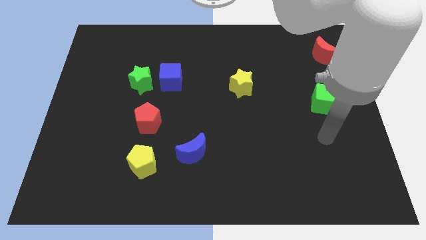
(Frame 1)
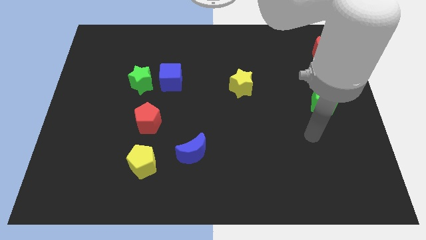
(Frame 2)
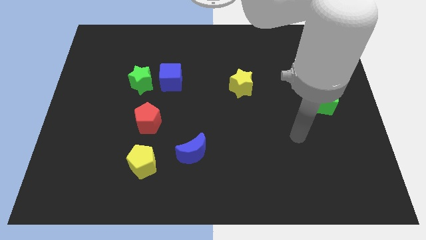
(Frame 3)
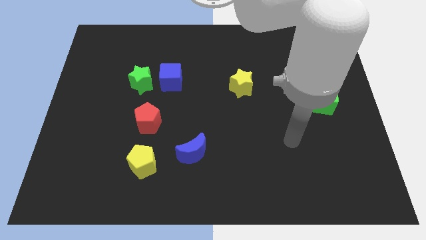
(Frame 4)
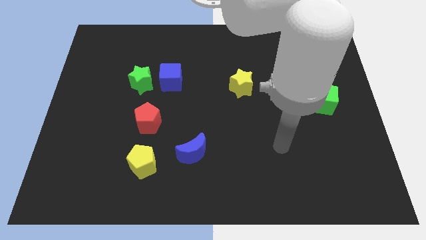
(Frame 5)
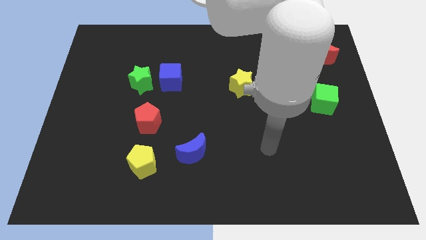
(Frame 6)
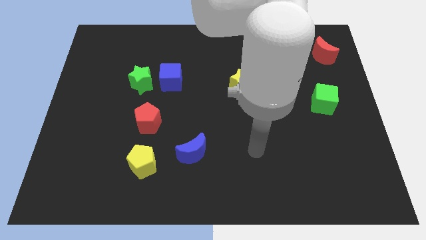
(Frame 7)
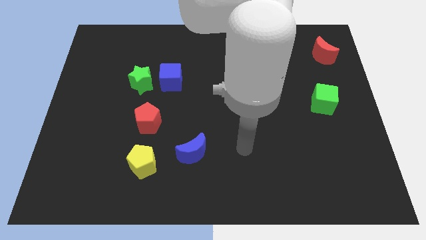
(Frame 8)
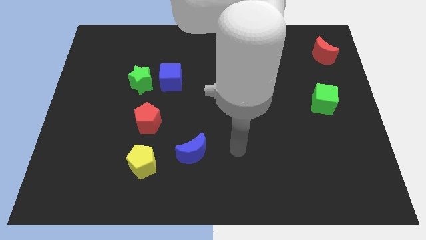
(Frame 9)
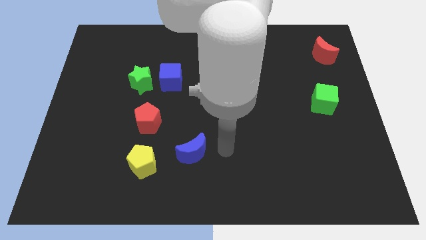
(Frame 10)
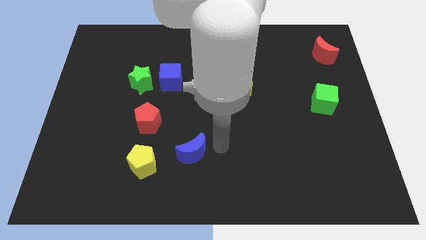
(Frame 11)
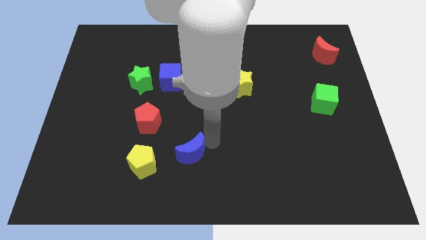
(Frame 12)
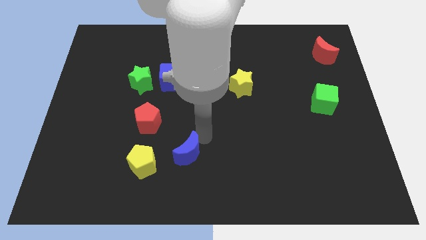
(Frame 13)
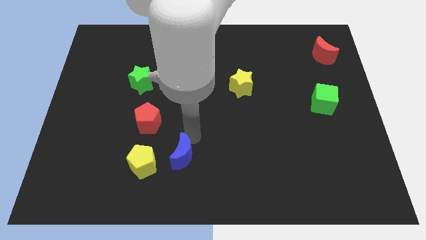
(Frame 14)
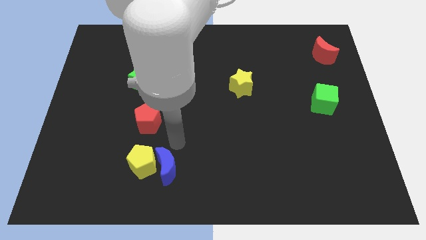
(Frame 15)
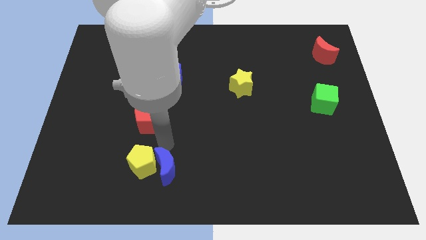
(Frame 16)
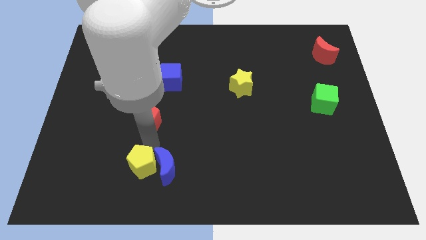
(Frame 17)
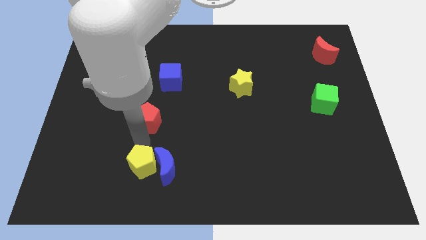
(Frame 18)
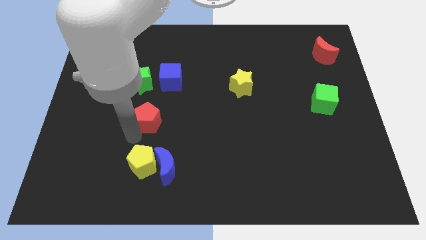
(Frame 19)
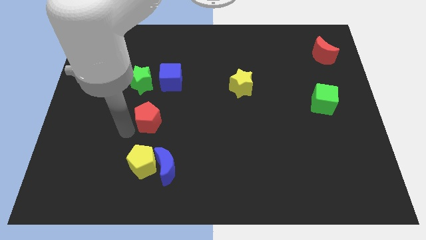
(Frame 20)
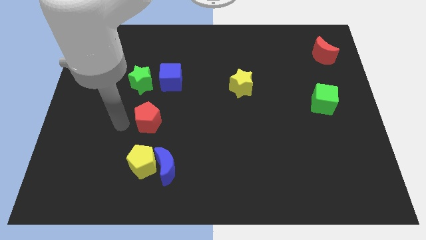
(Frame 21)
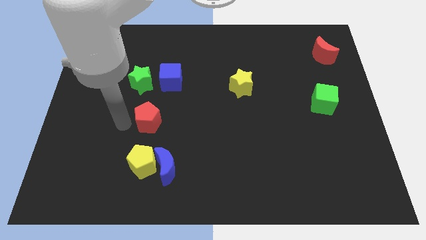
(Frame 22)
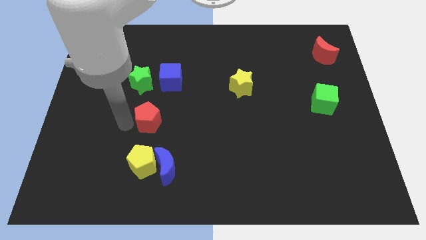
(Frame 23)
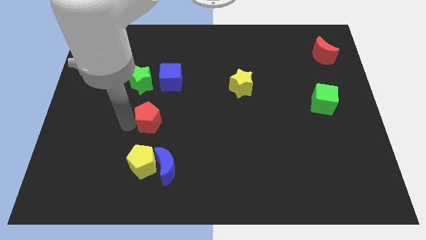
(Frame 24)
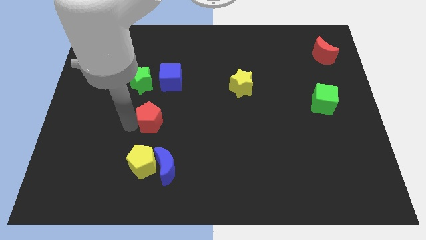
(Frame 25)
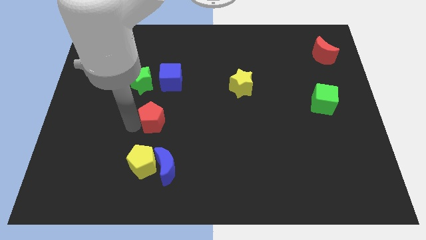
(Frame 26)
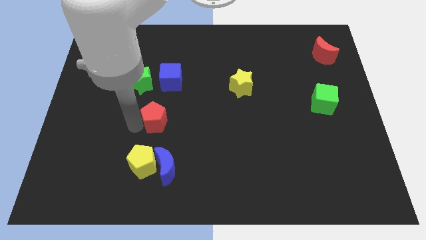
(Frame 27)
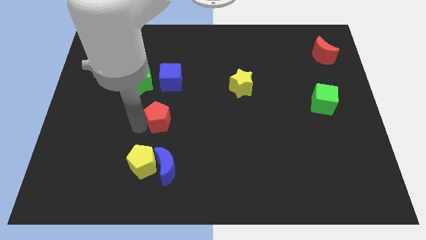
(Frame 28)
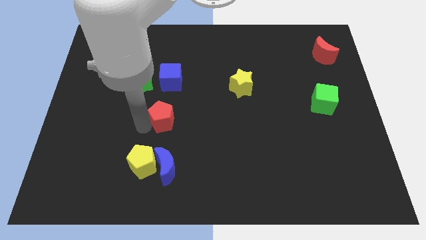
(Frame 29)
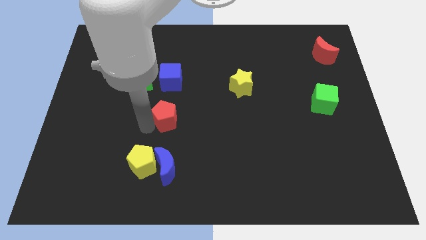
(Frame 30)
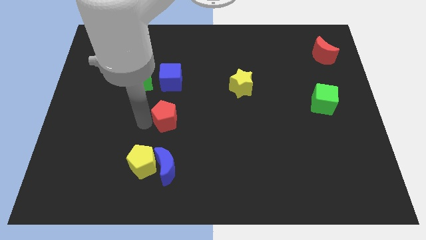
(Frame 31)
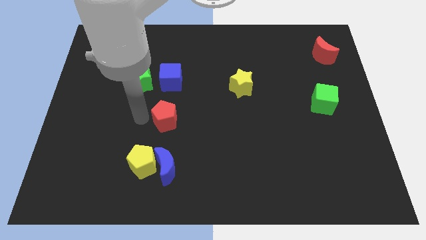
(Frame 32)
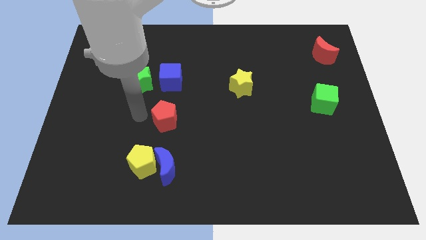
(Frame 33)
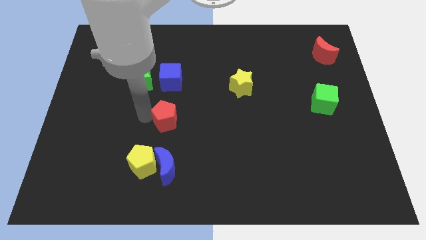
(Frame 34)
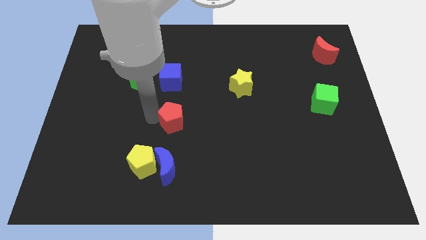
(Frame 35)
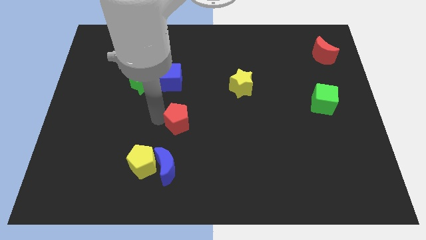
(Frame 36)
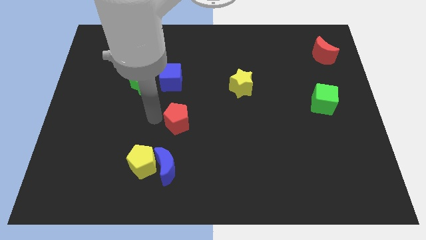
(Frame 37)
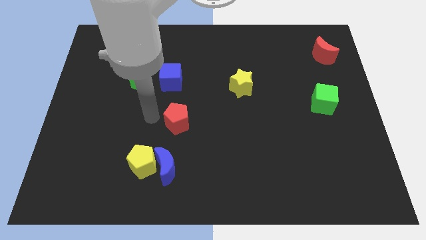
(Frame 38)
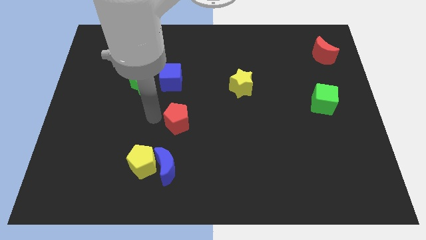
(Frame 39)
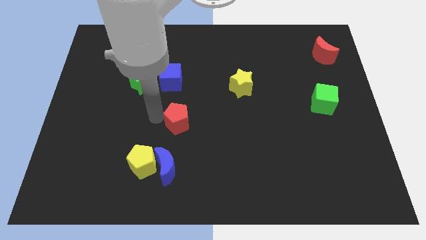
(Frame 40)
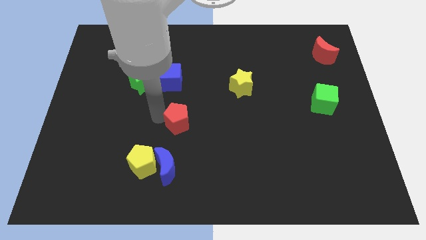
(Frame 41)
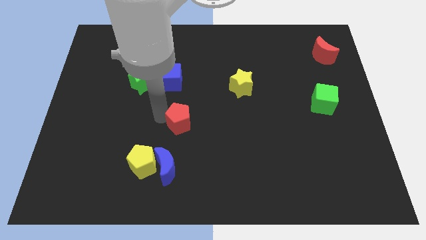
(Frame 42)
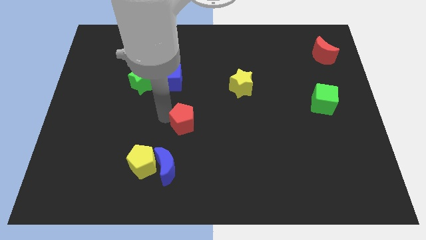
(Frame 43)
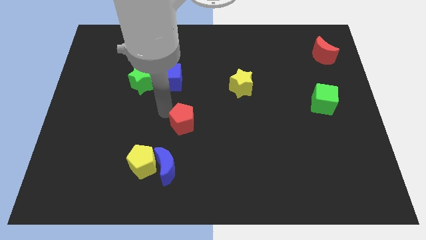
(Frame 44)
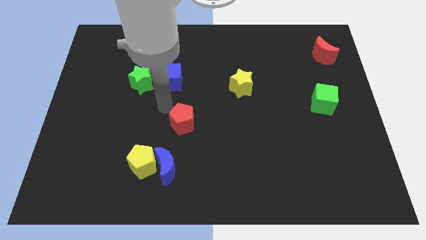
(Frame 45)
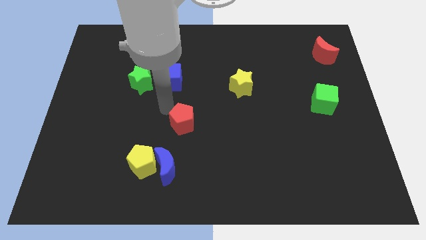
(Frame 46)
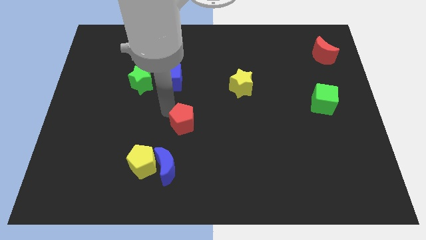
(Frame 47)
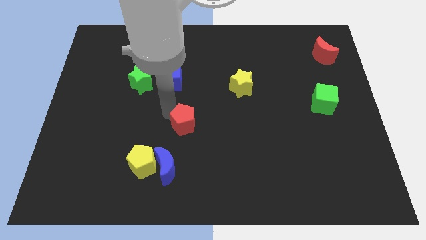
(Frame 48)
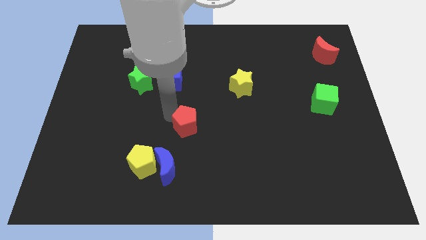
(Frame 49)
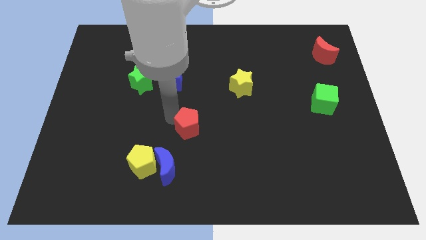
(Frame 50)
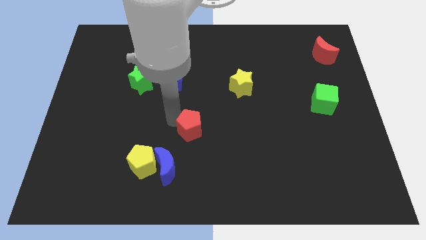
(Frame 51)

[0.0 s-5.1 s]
slightly move the red pentagon downwards and to the right diagonally

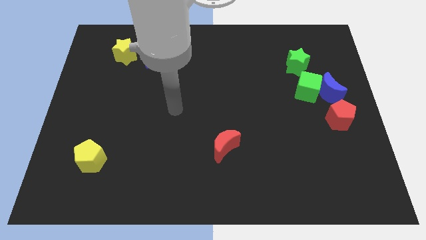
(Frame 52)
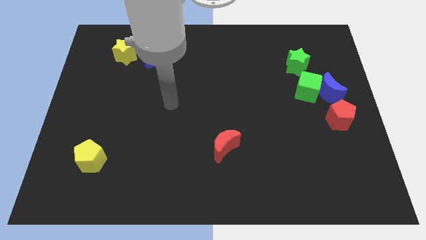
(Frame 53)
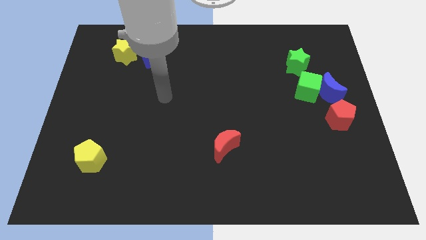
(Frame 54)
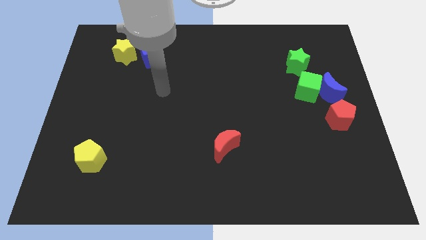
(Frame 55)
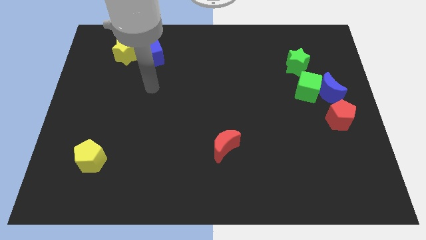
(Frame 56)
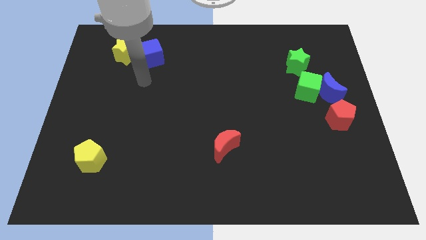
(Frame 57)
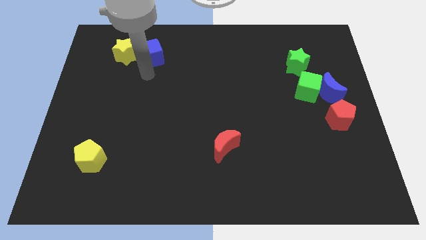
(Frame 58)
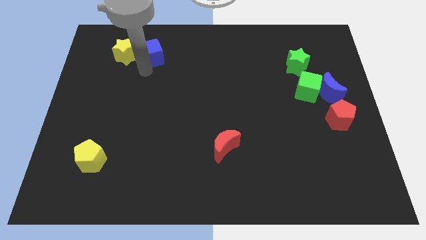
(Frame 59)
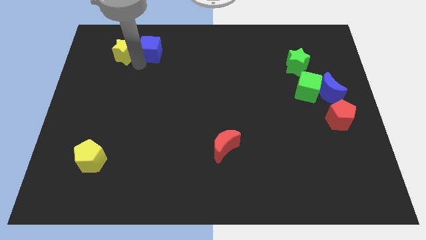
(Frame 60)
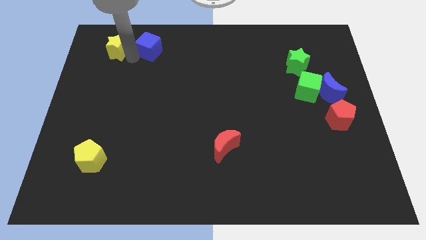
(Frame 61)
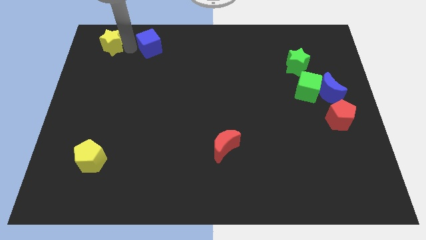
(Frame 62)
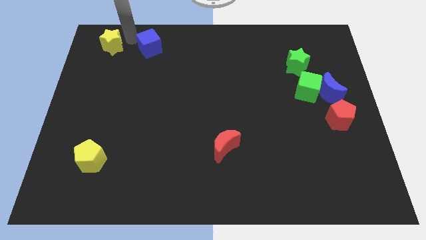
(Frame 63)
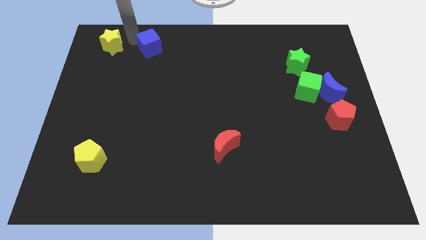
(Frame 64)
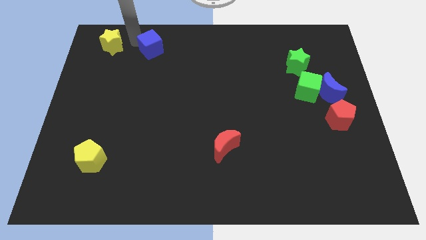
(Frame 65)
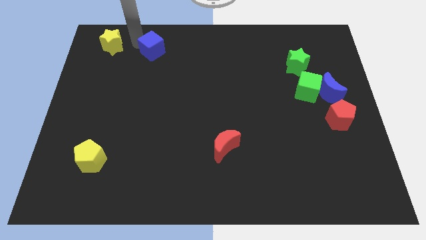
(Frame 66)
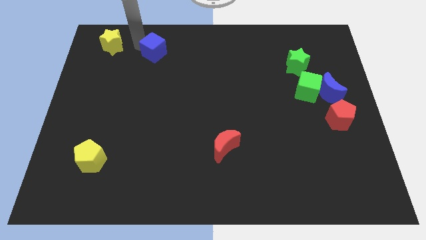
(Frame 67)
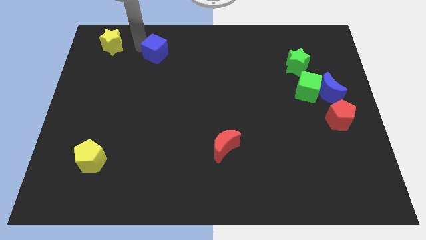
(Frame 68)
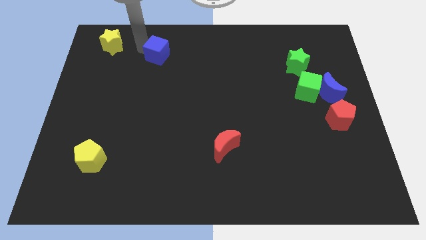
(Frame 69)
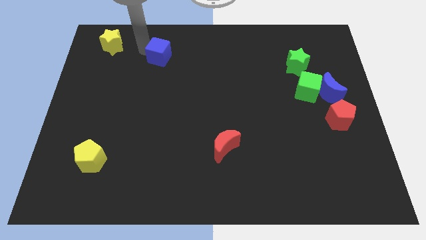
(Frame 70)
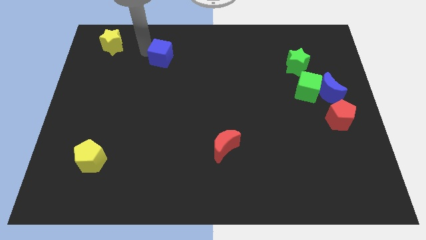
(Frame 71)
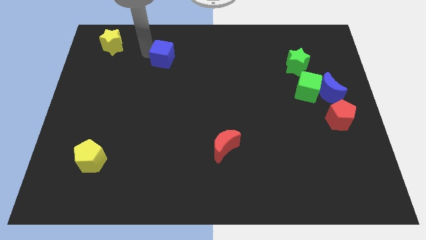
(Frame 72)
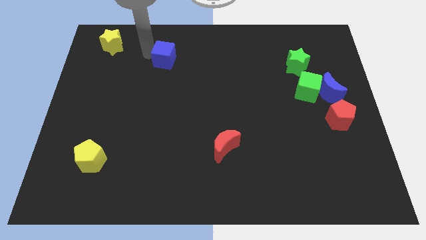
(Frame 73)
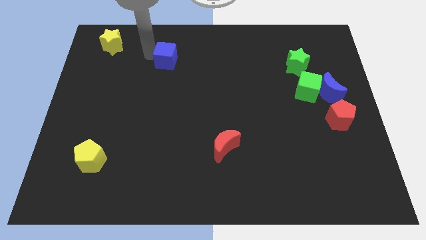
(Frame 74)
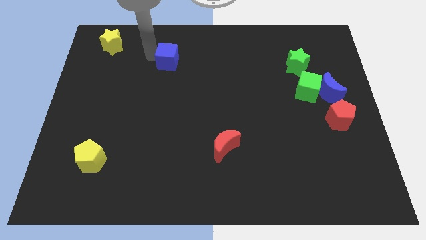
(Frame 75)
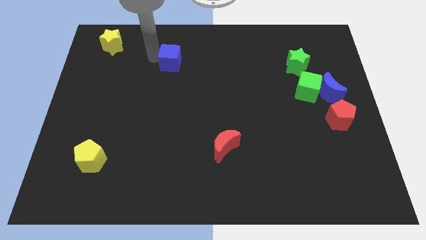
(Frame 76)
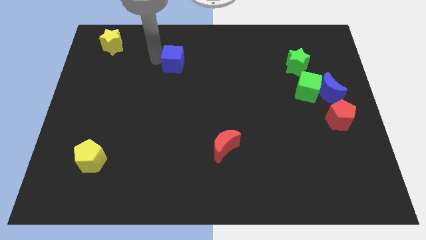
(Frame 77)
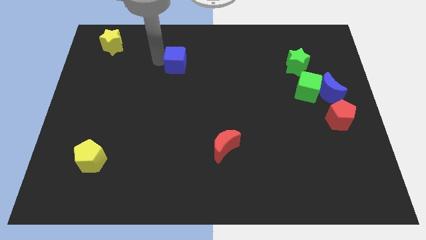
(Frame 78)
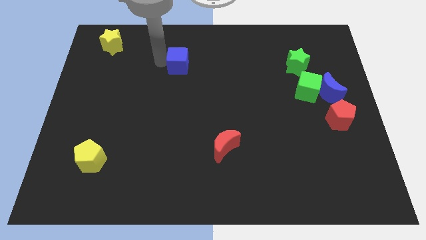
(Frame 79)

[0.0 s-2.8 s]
slightly push the blue cube right

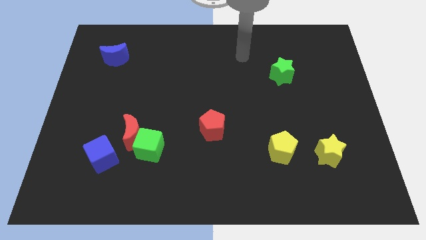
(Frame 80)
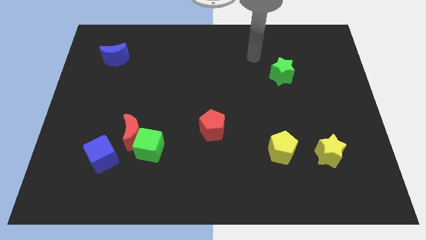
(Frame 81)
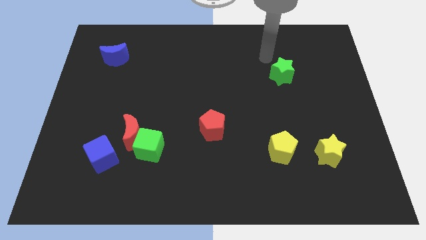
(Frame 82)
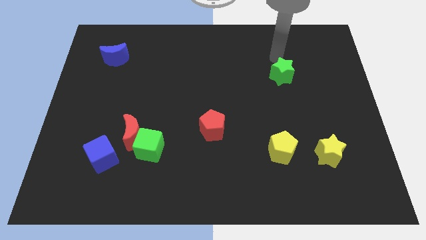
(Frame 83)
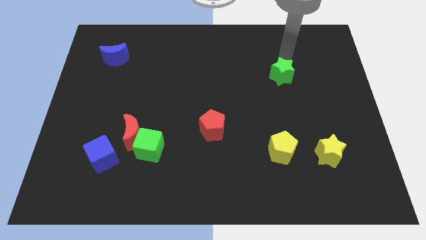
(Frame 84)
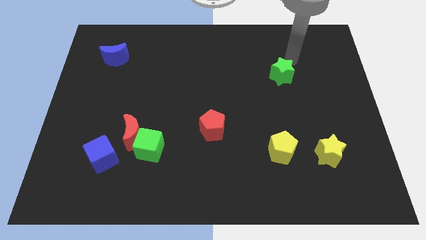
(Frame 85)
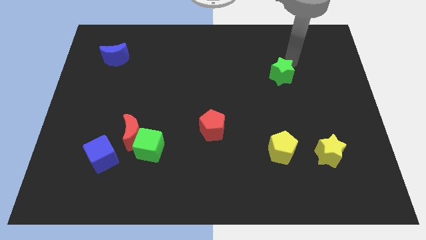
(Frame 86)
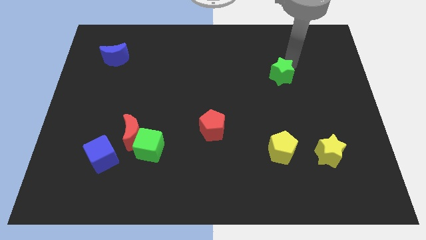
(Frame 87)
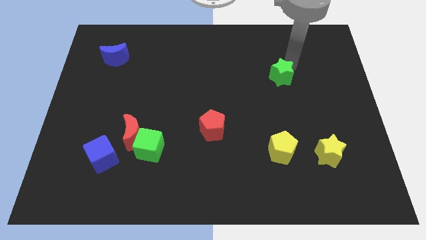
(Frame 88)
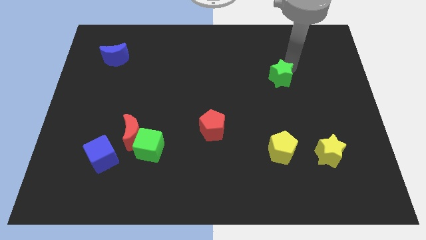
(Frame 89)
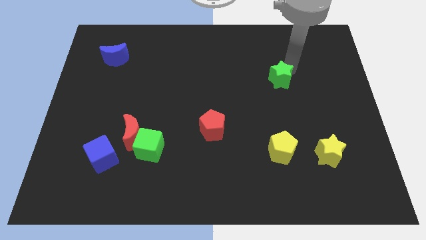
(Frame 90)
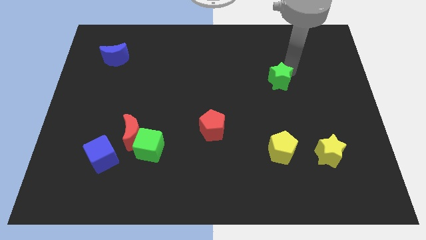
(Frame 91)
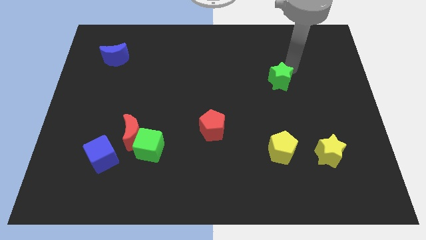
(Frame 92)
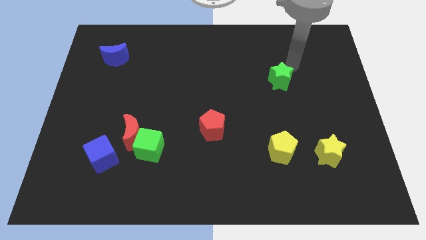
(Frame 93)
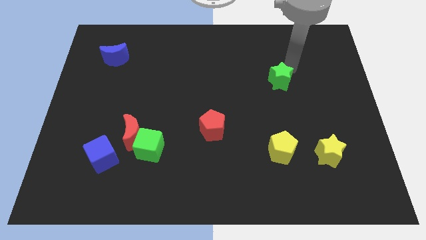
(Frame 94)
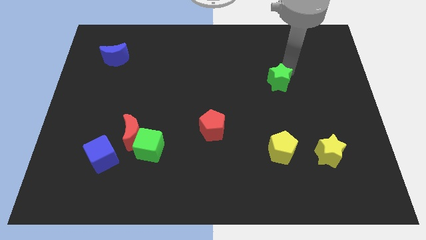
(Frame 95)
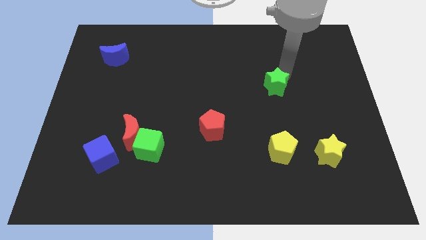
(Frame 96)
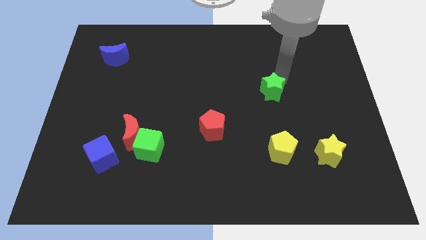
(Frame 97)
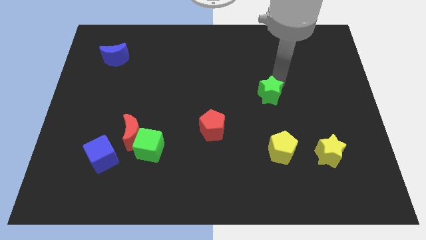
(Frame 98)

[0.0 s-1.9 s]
move the green star down and left diagonally slightly
